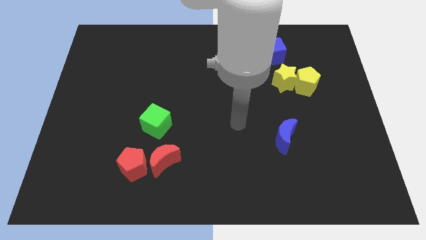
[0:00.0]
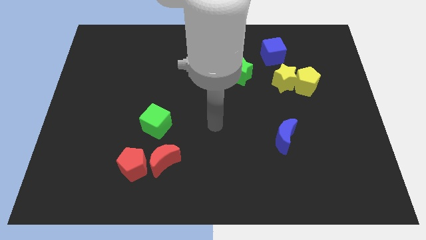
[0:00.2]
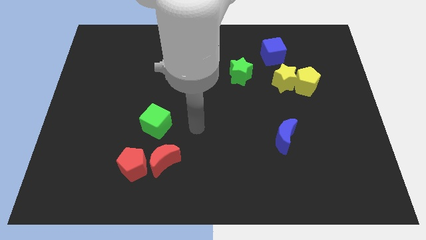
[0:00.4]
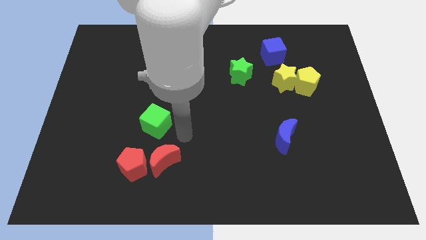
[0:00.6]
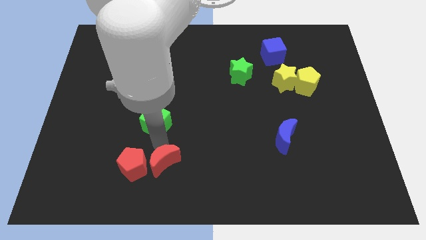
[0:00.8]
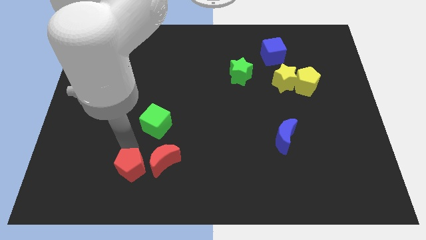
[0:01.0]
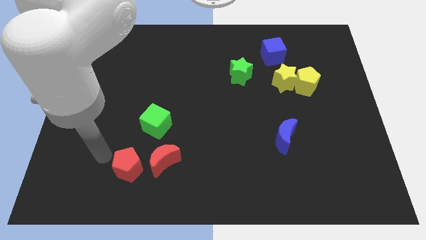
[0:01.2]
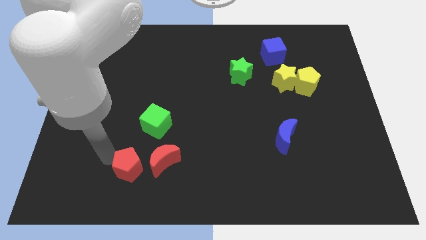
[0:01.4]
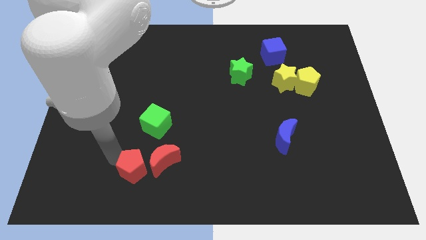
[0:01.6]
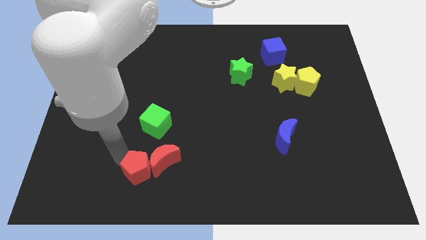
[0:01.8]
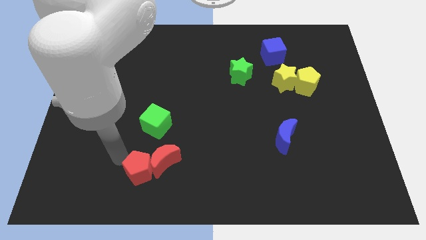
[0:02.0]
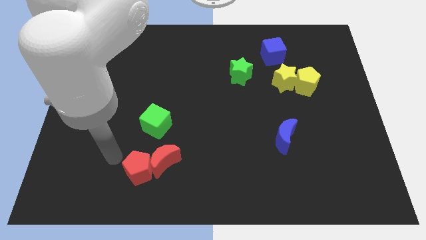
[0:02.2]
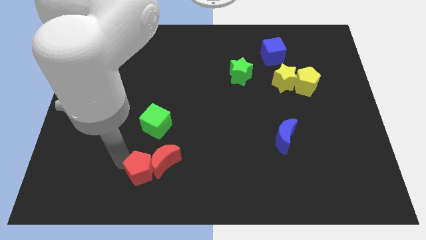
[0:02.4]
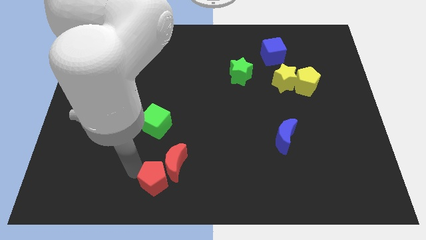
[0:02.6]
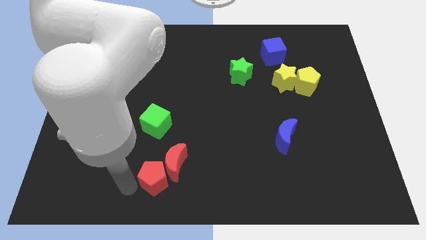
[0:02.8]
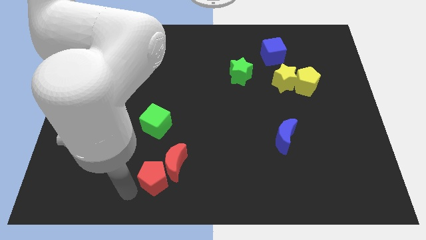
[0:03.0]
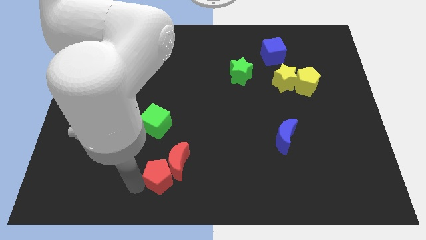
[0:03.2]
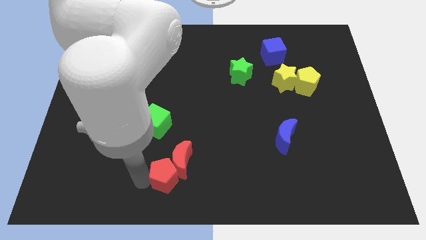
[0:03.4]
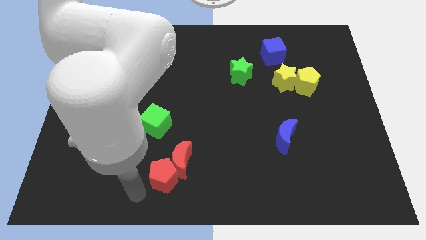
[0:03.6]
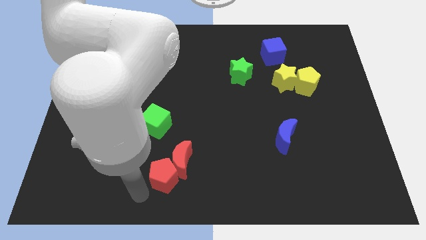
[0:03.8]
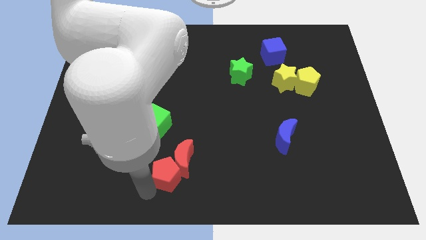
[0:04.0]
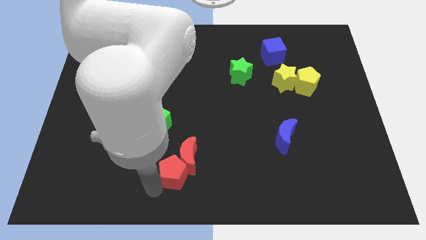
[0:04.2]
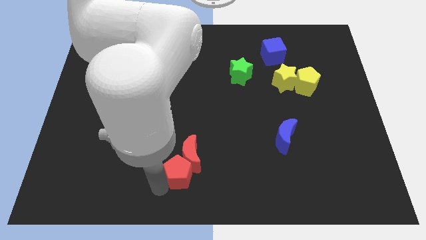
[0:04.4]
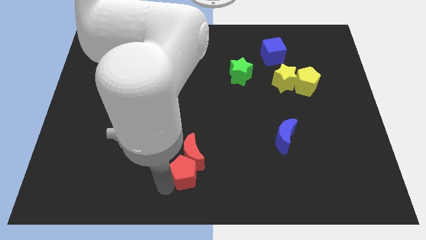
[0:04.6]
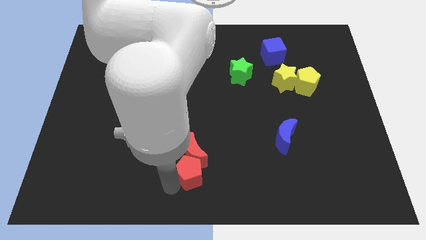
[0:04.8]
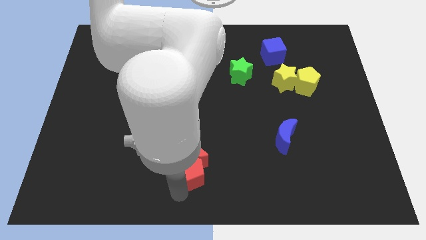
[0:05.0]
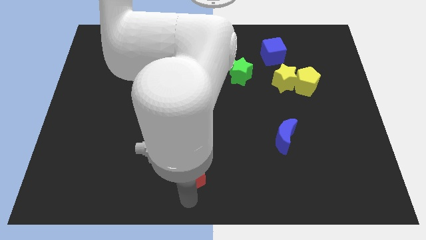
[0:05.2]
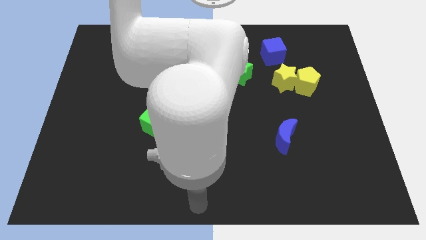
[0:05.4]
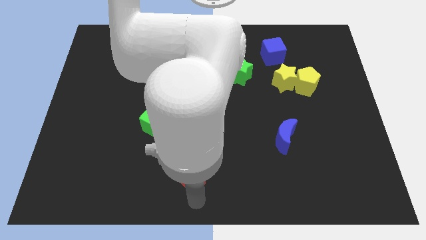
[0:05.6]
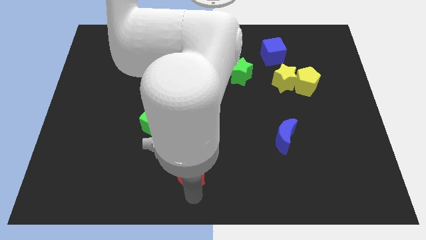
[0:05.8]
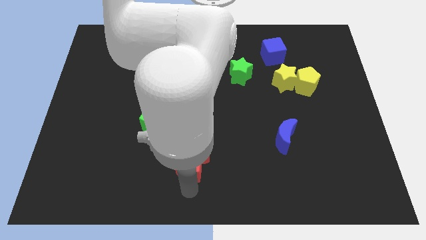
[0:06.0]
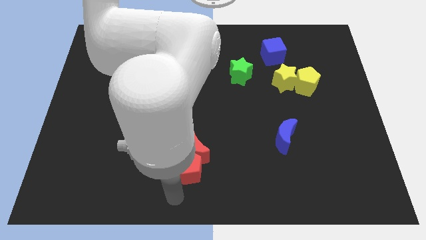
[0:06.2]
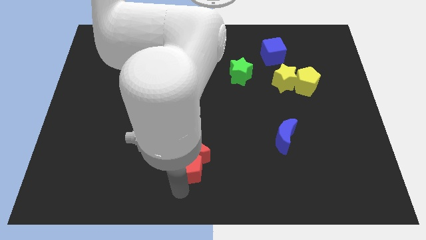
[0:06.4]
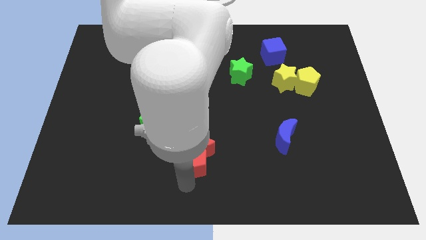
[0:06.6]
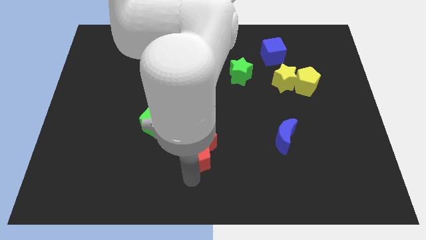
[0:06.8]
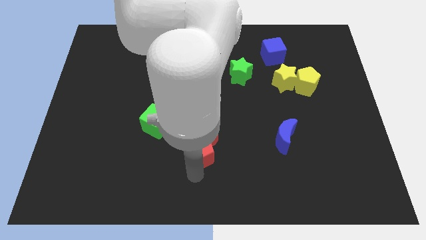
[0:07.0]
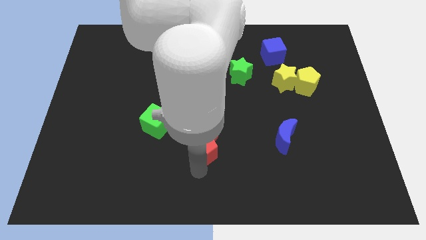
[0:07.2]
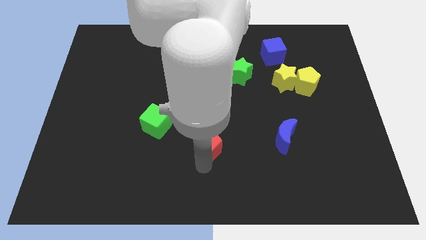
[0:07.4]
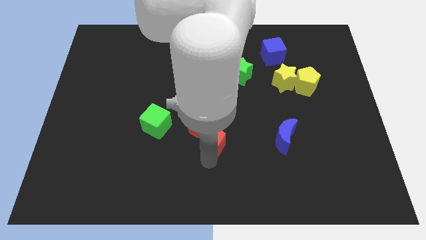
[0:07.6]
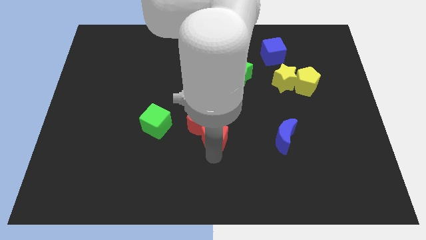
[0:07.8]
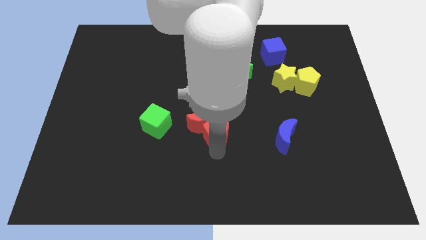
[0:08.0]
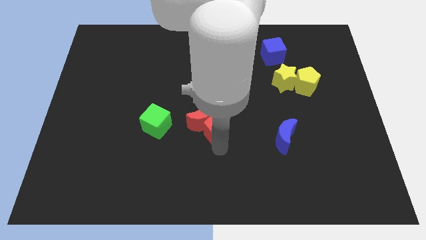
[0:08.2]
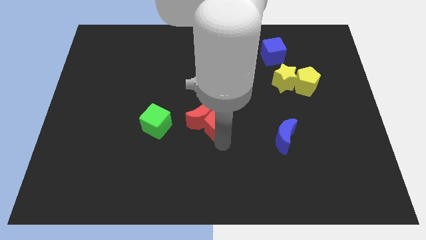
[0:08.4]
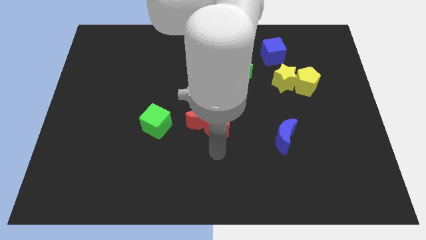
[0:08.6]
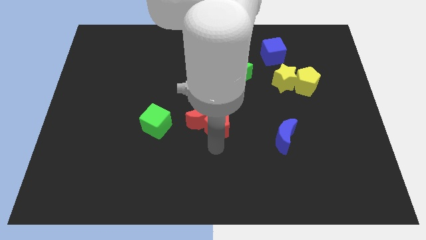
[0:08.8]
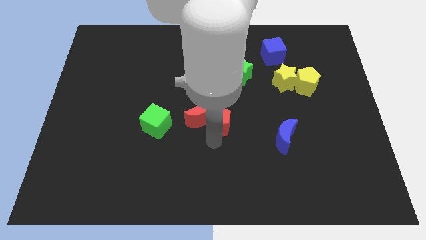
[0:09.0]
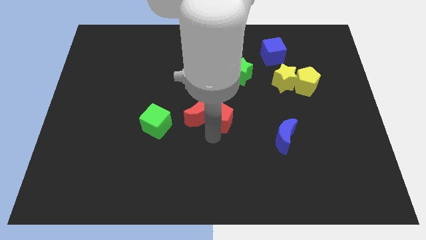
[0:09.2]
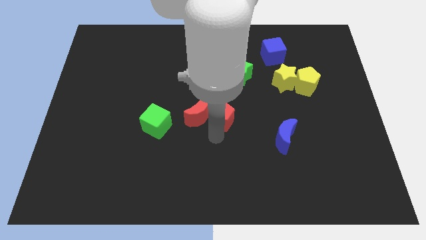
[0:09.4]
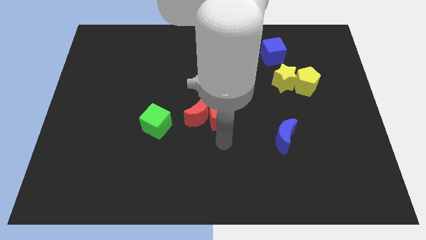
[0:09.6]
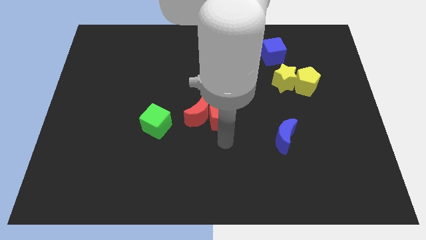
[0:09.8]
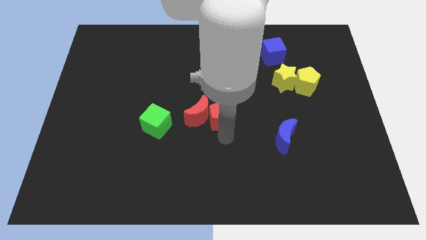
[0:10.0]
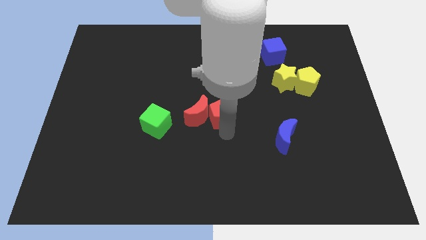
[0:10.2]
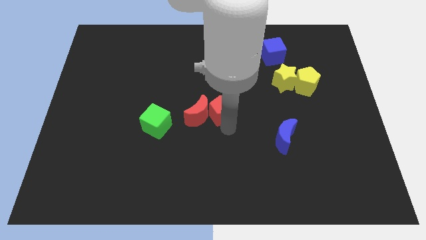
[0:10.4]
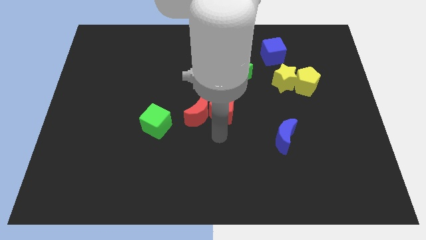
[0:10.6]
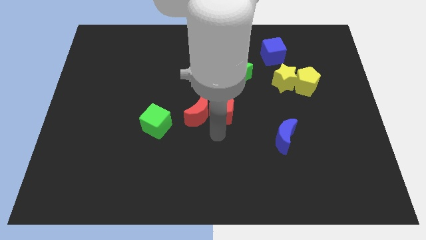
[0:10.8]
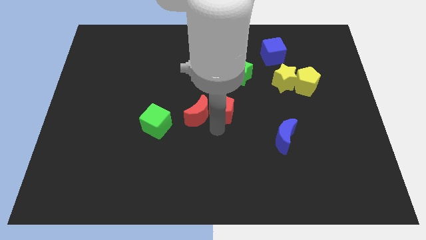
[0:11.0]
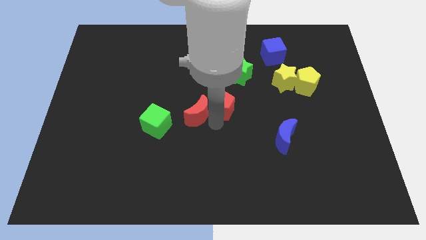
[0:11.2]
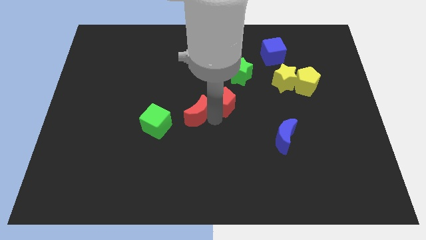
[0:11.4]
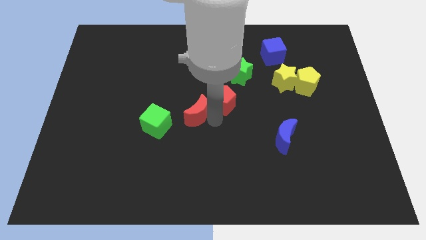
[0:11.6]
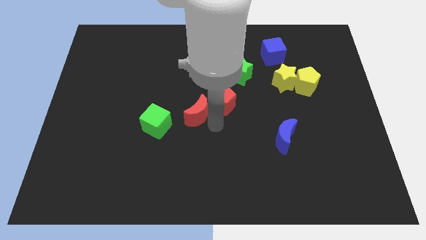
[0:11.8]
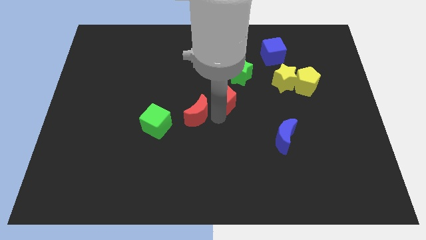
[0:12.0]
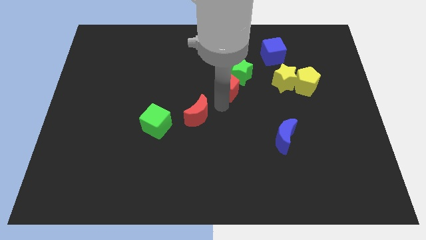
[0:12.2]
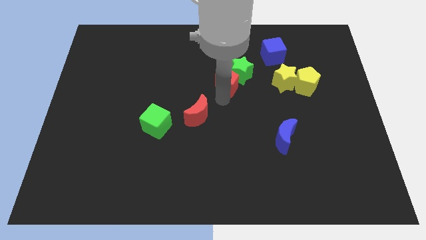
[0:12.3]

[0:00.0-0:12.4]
move the red pentagon next to the green star

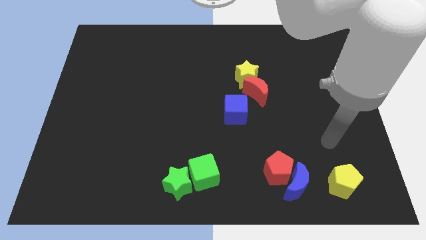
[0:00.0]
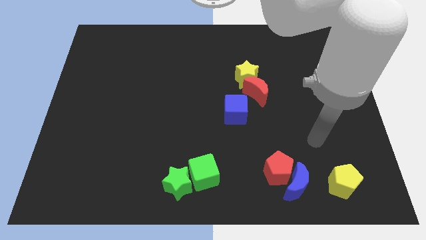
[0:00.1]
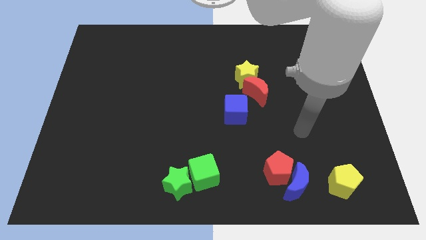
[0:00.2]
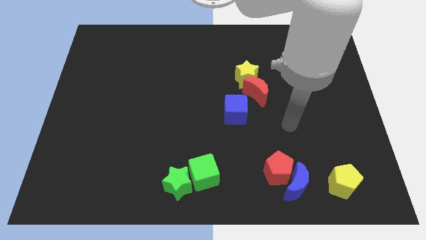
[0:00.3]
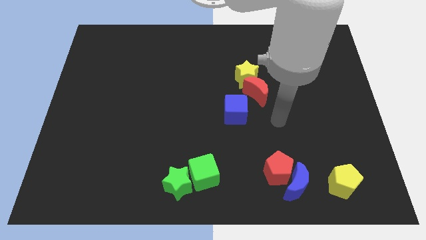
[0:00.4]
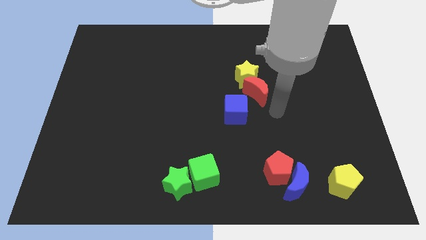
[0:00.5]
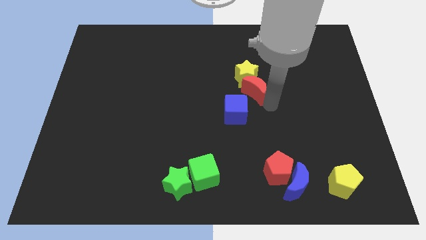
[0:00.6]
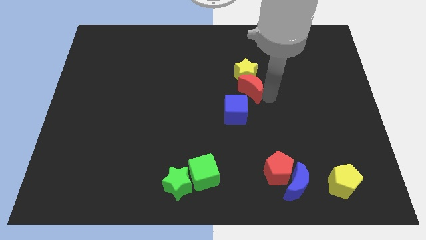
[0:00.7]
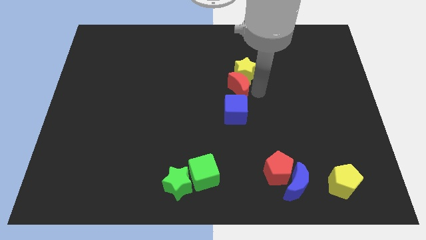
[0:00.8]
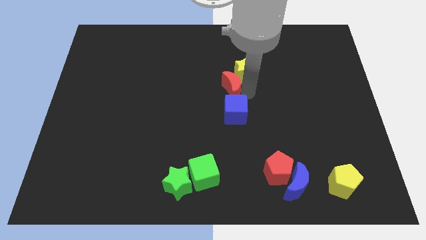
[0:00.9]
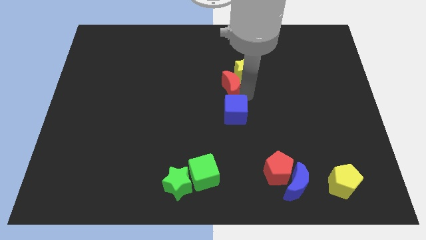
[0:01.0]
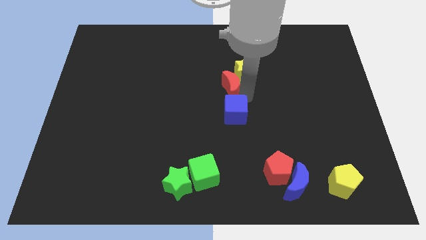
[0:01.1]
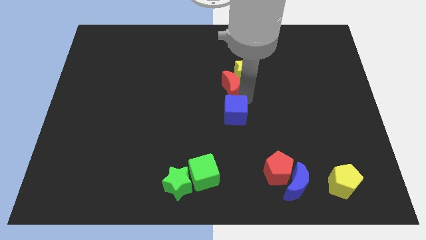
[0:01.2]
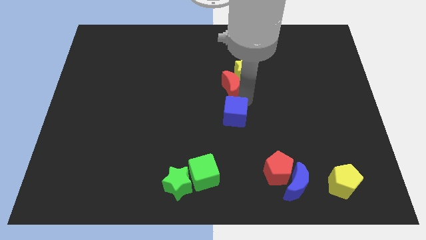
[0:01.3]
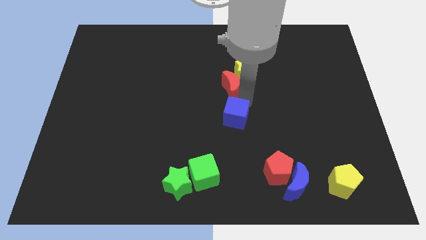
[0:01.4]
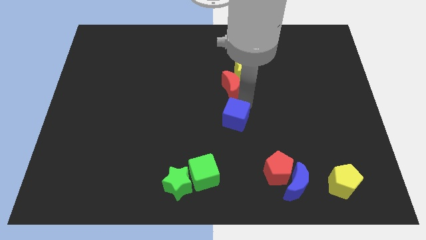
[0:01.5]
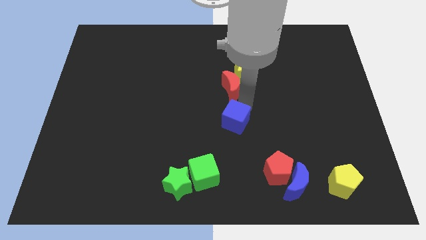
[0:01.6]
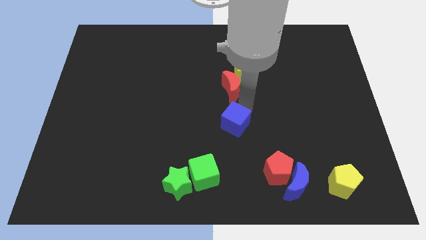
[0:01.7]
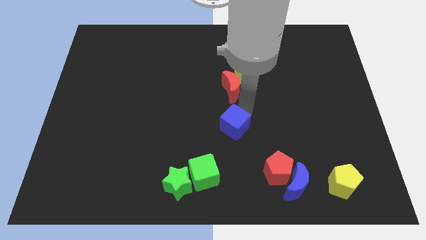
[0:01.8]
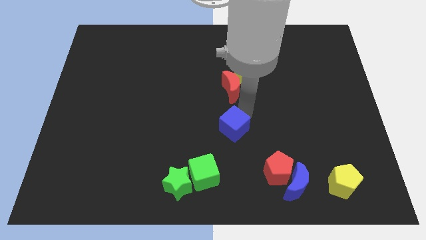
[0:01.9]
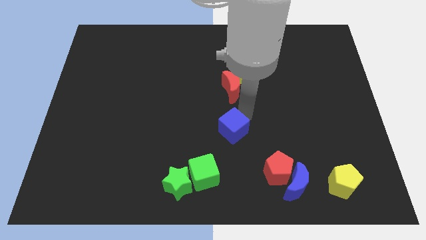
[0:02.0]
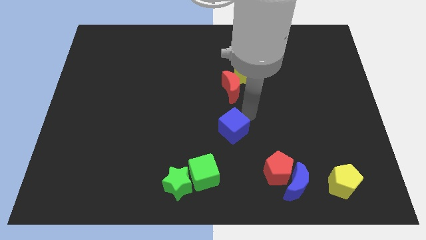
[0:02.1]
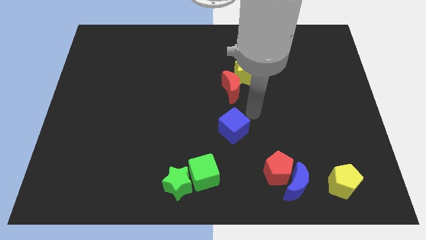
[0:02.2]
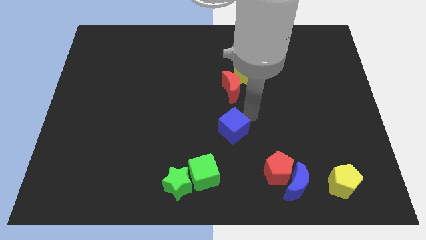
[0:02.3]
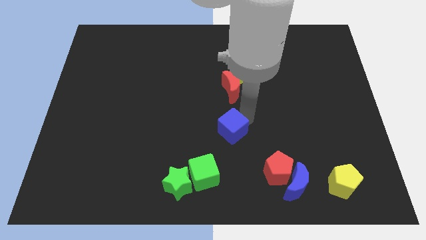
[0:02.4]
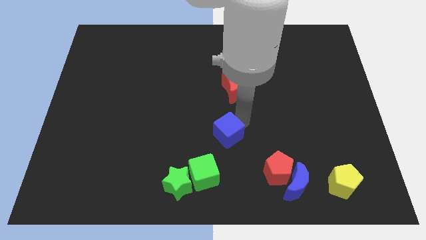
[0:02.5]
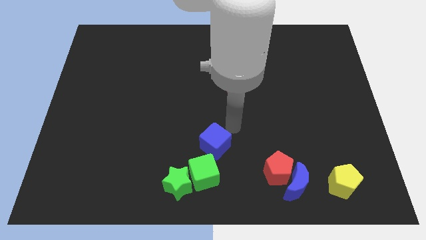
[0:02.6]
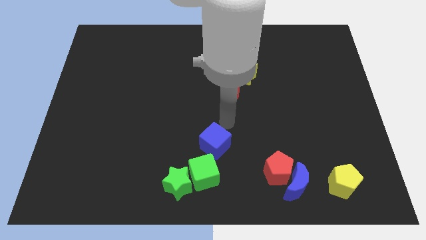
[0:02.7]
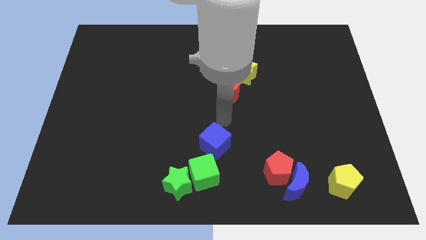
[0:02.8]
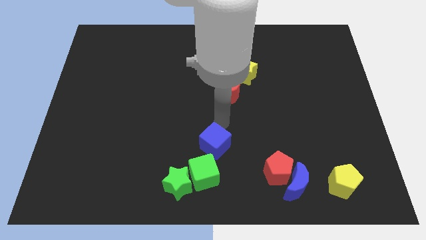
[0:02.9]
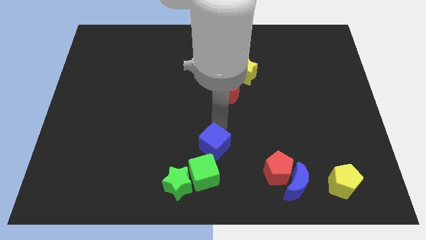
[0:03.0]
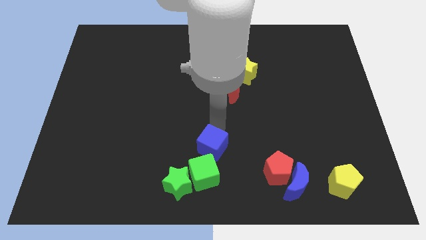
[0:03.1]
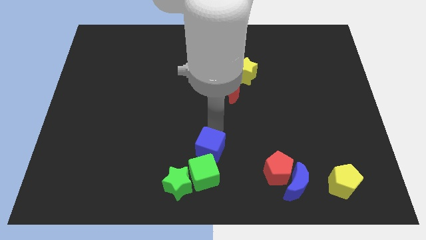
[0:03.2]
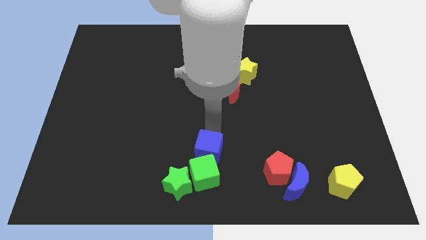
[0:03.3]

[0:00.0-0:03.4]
move the blue cube towards the green cube
